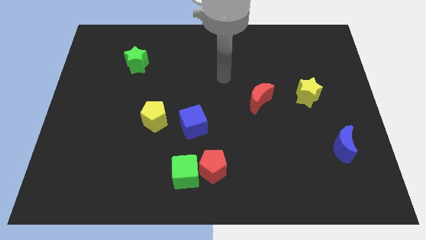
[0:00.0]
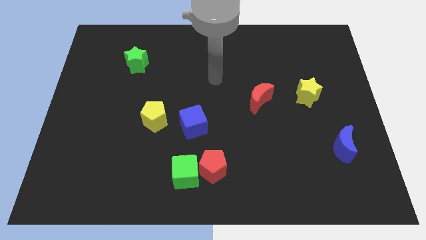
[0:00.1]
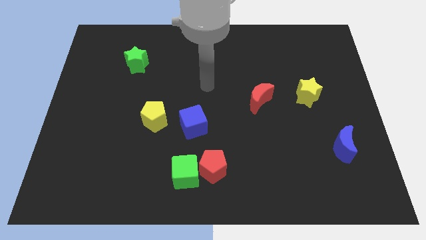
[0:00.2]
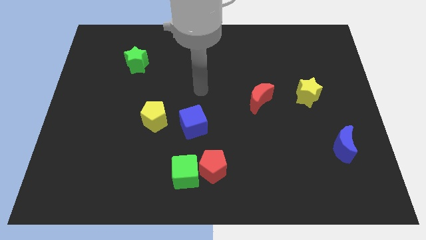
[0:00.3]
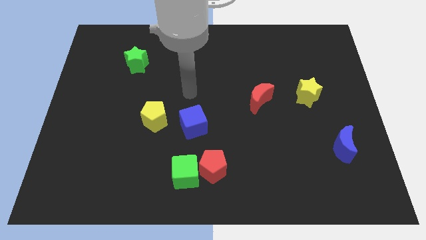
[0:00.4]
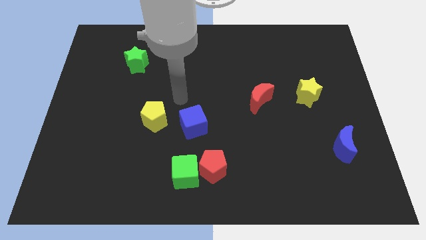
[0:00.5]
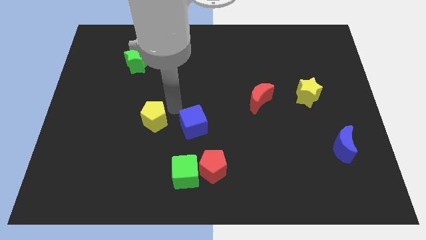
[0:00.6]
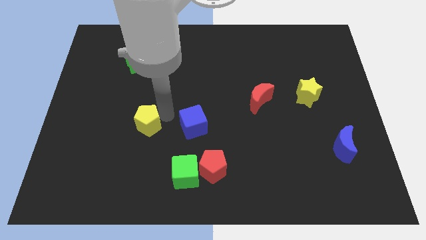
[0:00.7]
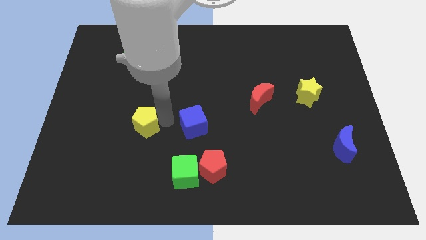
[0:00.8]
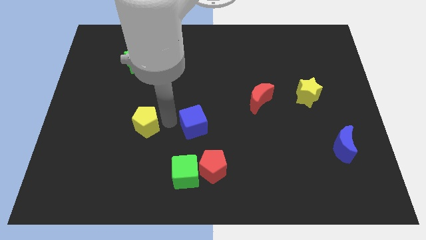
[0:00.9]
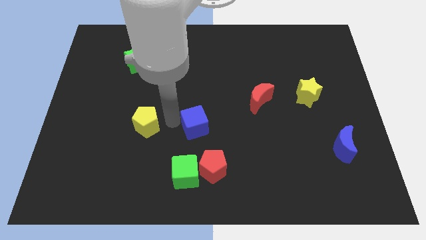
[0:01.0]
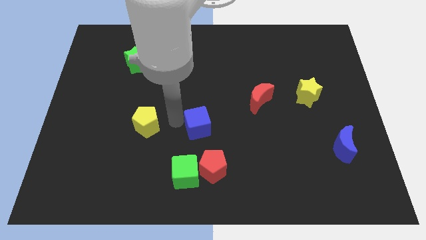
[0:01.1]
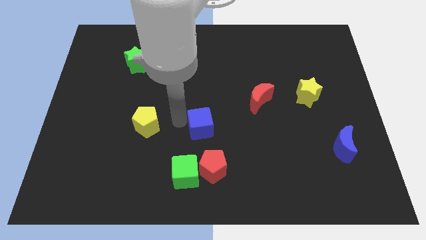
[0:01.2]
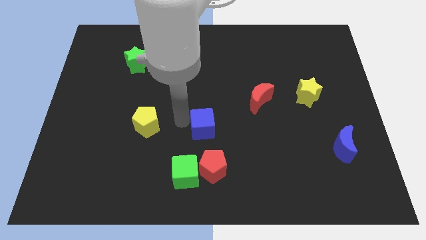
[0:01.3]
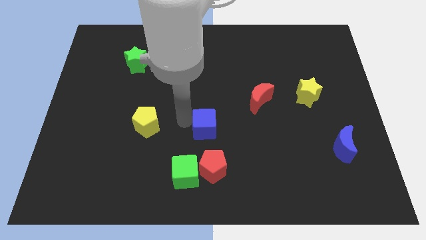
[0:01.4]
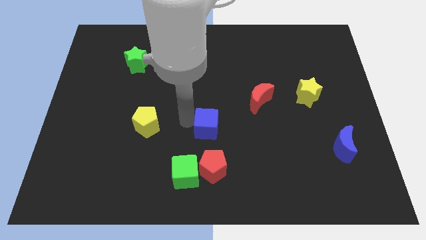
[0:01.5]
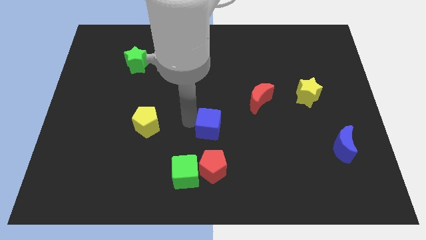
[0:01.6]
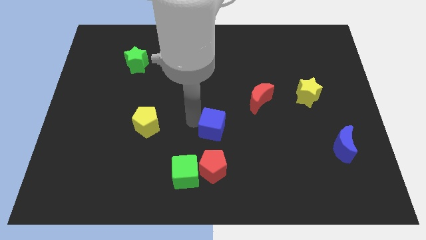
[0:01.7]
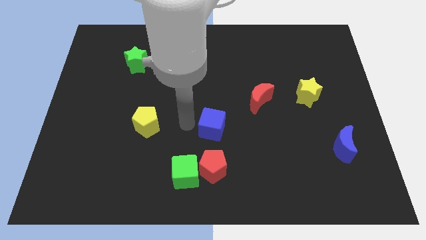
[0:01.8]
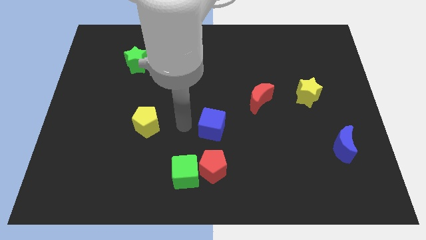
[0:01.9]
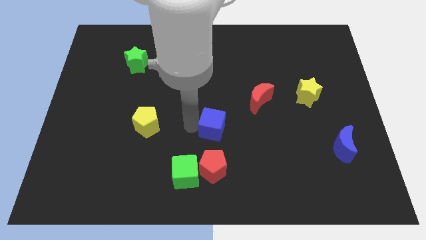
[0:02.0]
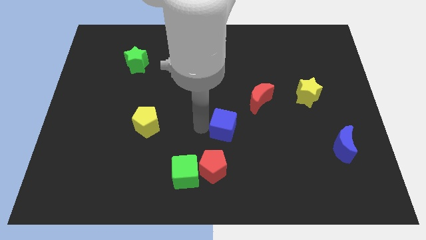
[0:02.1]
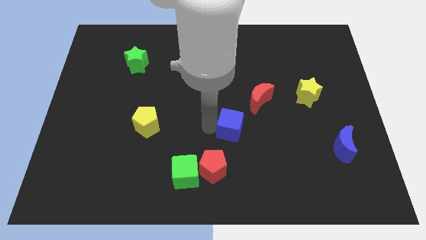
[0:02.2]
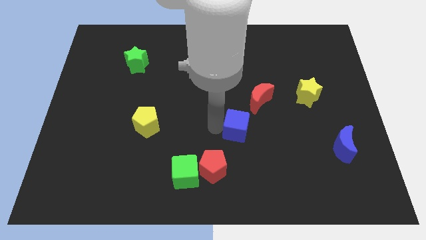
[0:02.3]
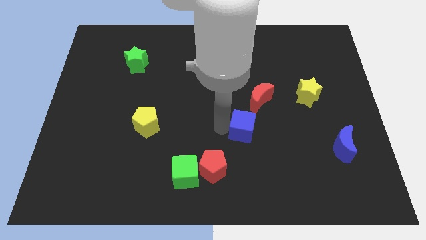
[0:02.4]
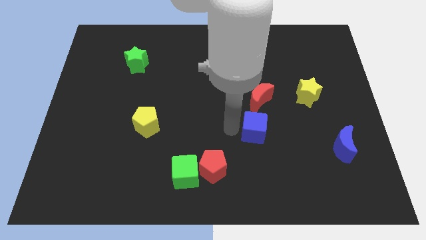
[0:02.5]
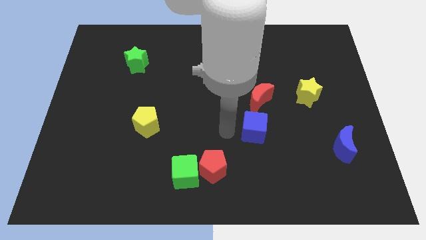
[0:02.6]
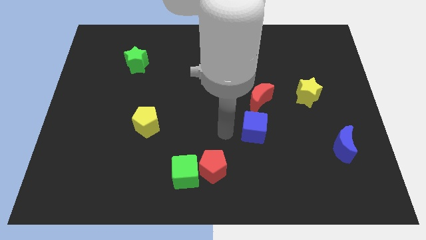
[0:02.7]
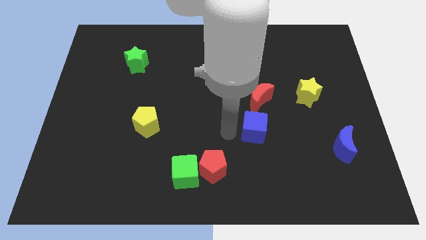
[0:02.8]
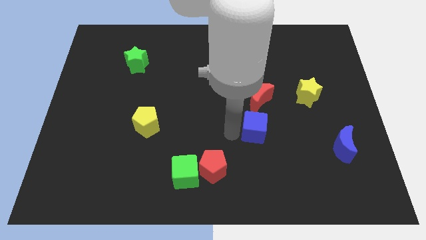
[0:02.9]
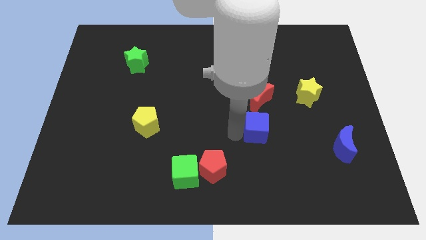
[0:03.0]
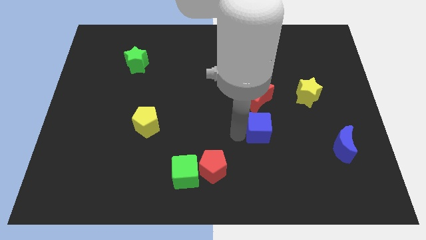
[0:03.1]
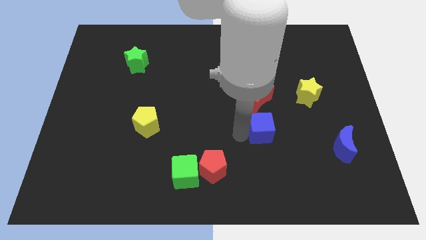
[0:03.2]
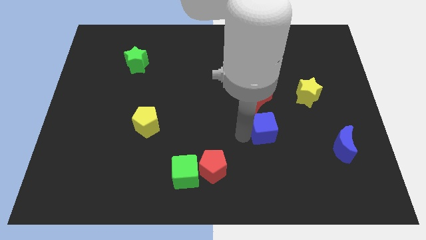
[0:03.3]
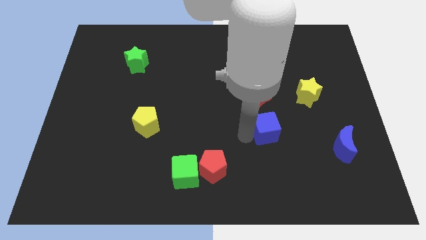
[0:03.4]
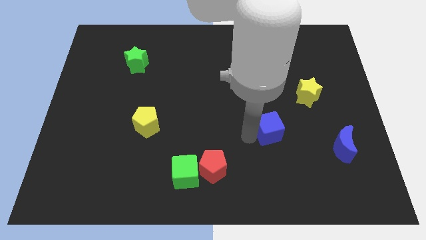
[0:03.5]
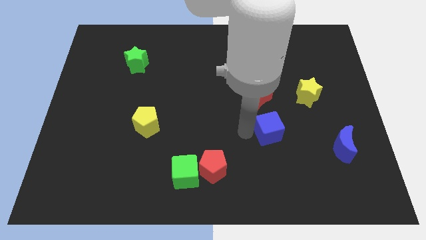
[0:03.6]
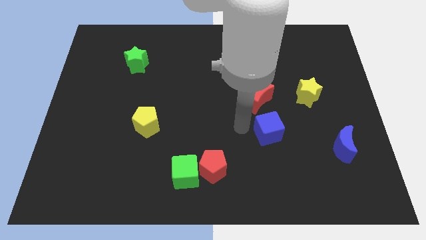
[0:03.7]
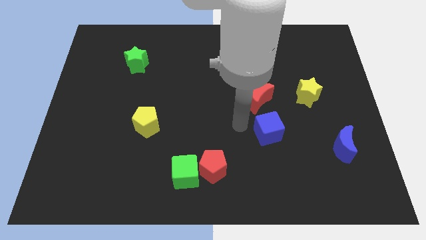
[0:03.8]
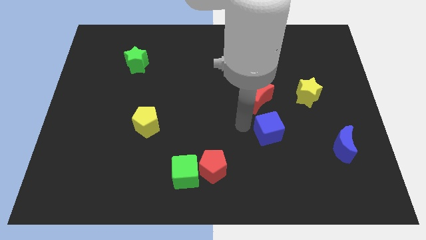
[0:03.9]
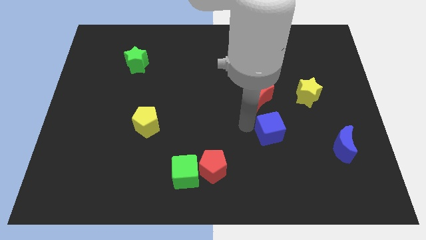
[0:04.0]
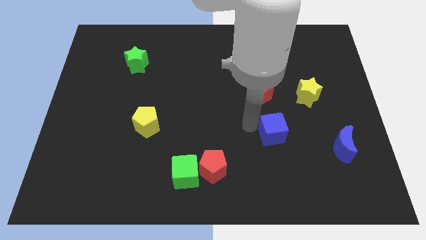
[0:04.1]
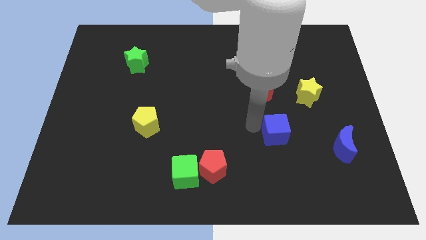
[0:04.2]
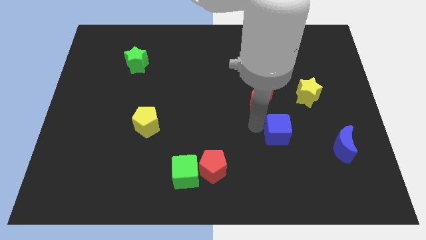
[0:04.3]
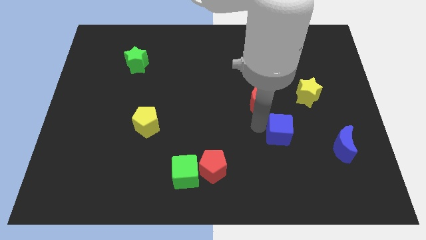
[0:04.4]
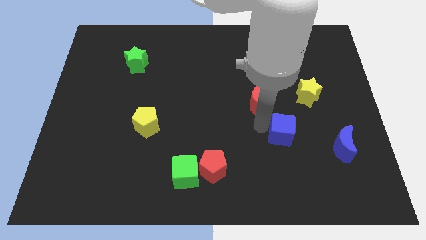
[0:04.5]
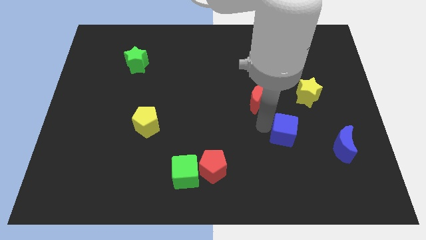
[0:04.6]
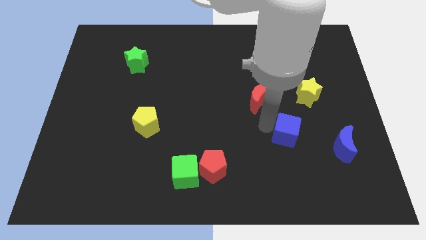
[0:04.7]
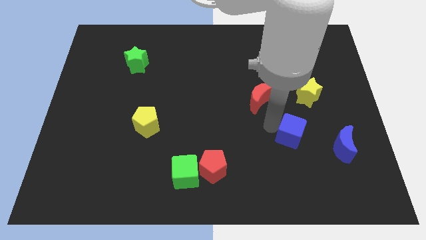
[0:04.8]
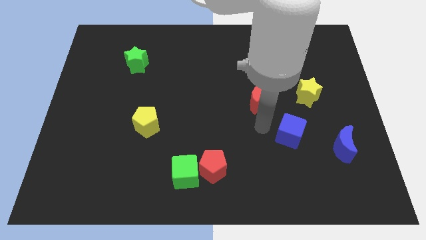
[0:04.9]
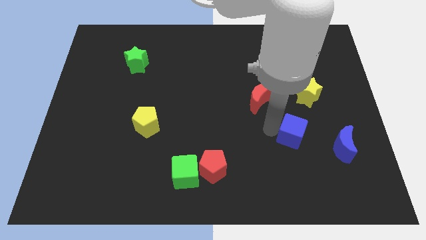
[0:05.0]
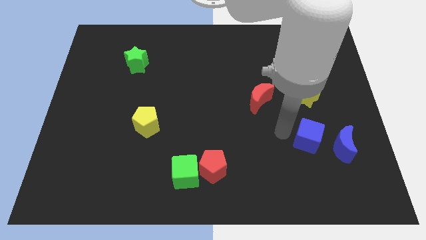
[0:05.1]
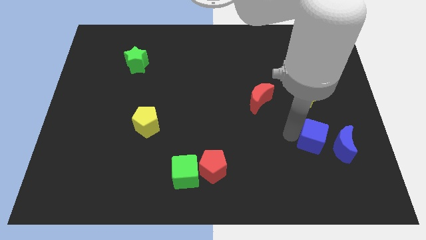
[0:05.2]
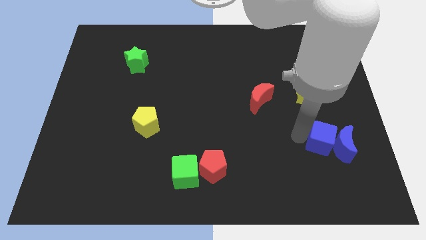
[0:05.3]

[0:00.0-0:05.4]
move the blue cube next to the blue moon

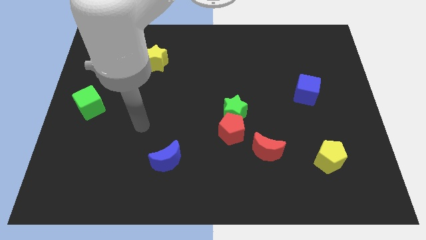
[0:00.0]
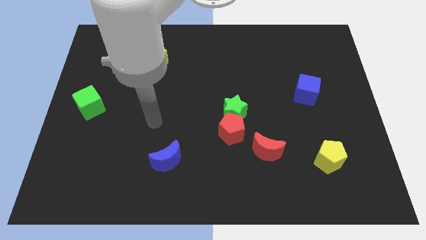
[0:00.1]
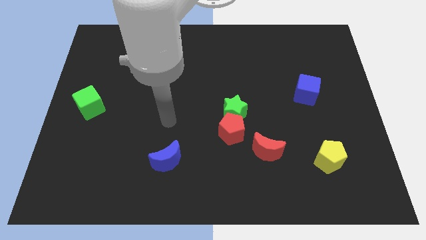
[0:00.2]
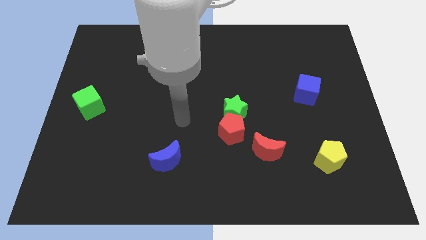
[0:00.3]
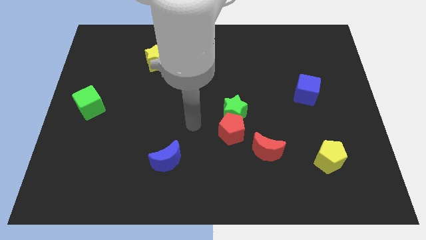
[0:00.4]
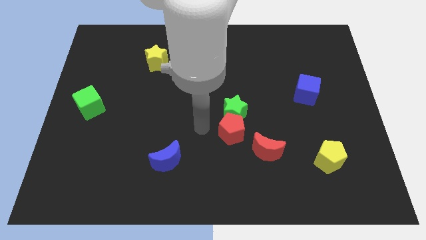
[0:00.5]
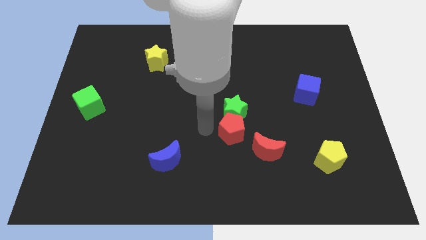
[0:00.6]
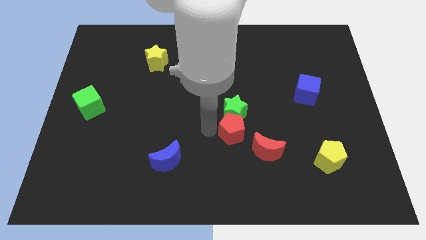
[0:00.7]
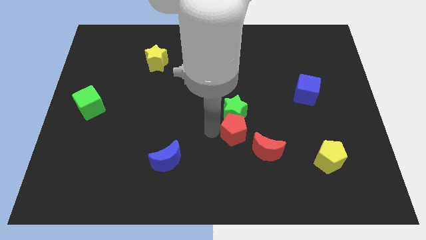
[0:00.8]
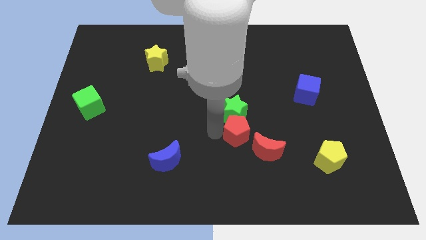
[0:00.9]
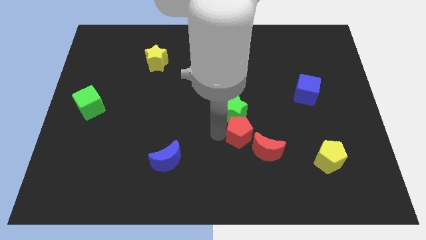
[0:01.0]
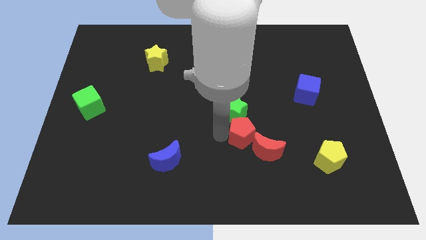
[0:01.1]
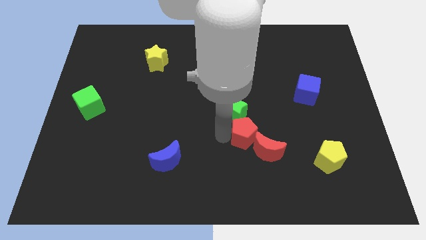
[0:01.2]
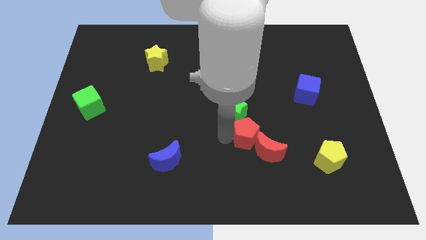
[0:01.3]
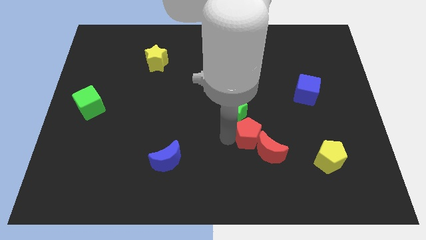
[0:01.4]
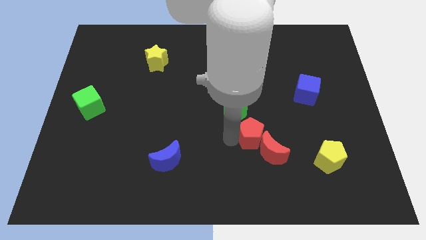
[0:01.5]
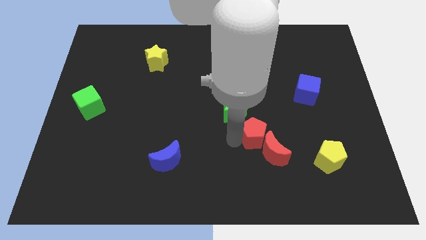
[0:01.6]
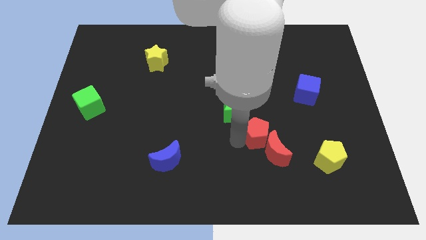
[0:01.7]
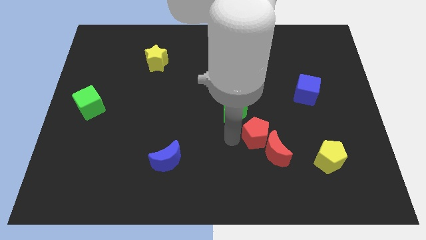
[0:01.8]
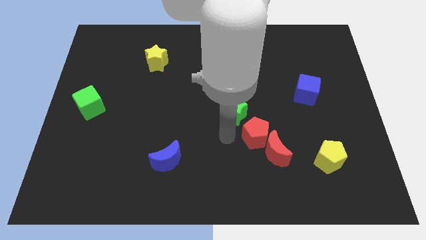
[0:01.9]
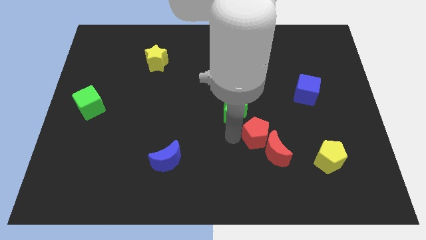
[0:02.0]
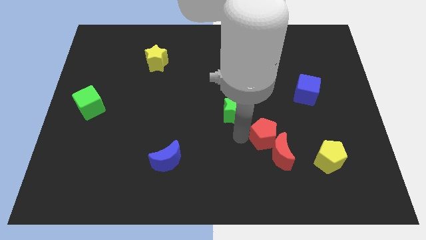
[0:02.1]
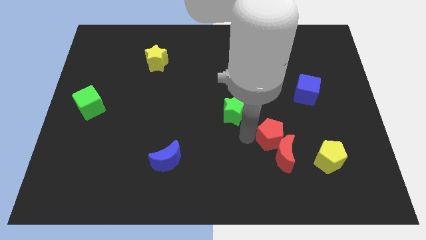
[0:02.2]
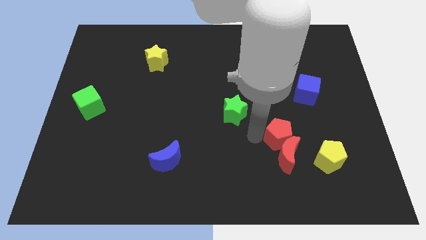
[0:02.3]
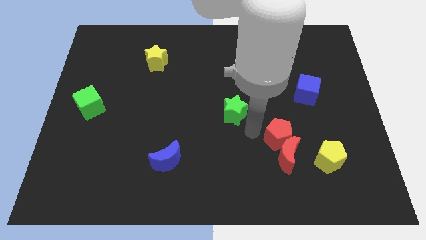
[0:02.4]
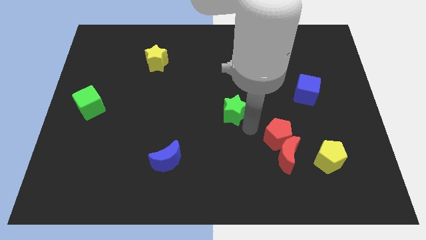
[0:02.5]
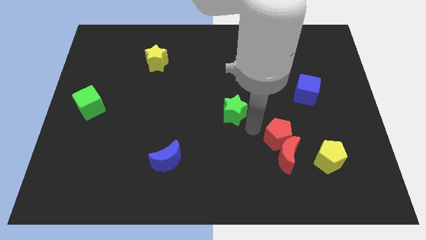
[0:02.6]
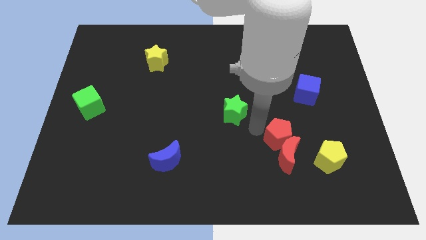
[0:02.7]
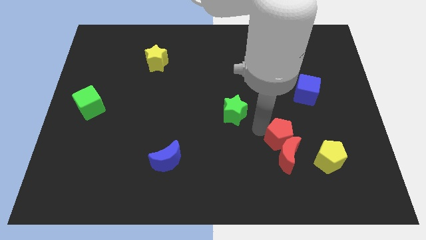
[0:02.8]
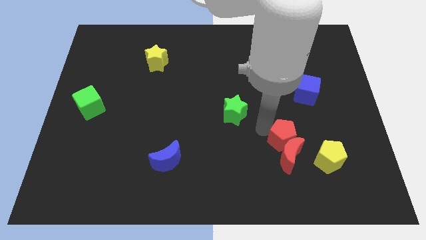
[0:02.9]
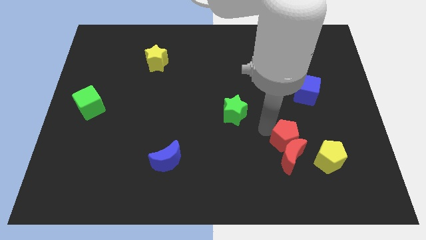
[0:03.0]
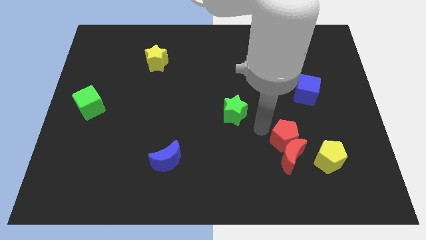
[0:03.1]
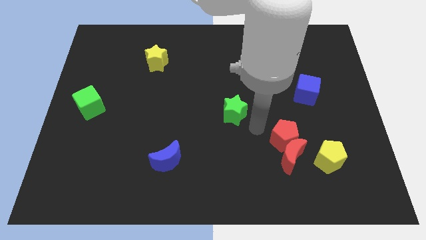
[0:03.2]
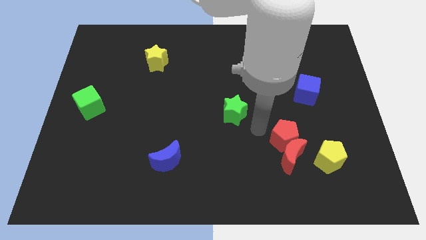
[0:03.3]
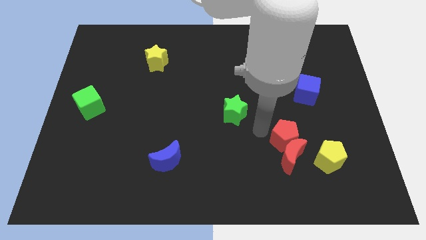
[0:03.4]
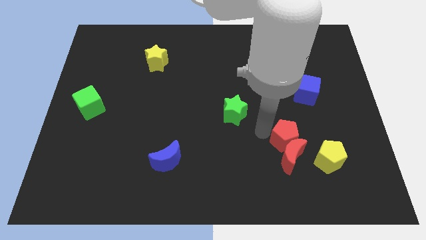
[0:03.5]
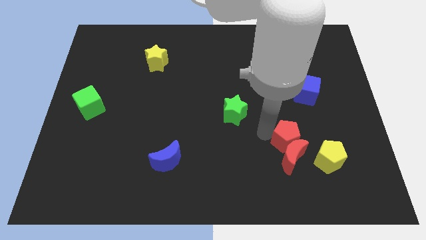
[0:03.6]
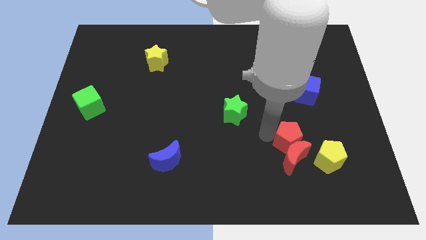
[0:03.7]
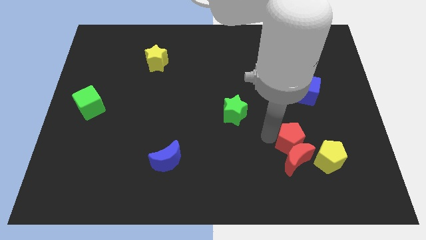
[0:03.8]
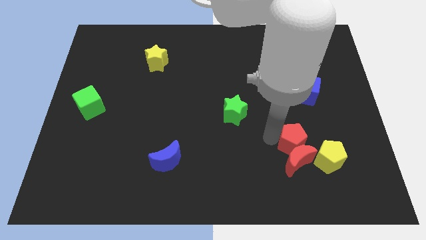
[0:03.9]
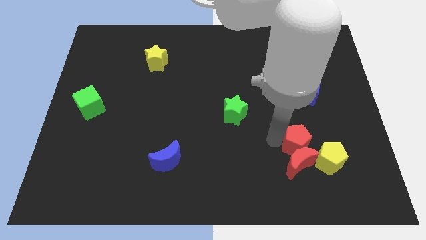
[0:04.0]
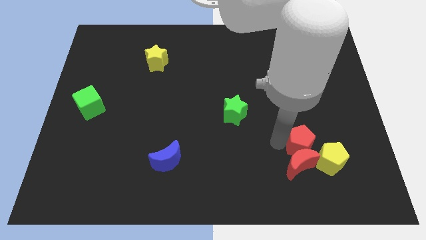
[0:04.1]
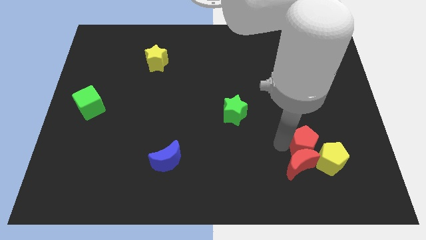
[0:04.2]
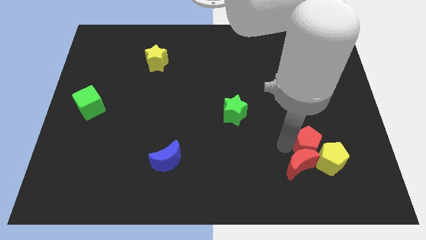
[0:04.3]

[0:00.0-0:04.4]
move the red pentagon close to the yellow pentagon
